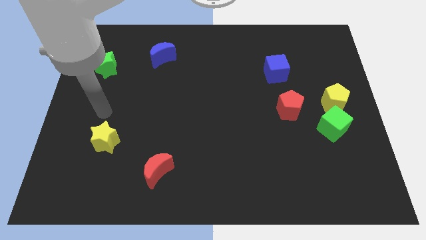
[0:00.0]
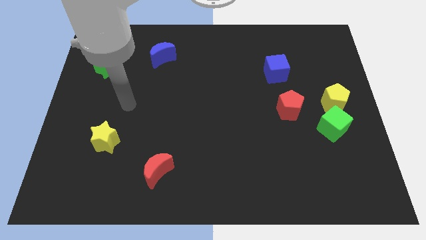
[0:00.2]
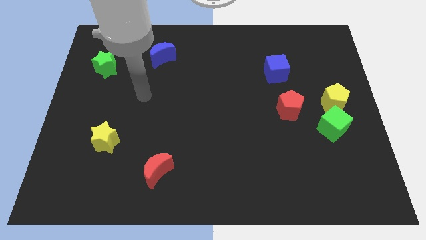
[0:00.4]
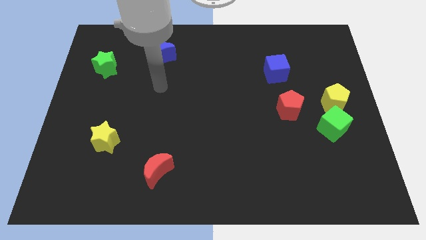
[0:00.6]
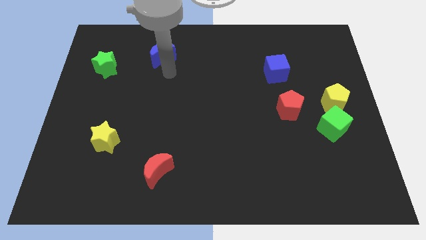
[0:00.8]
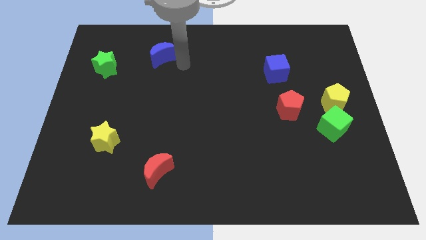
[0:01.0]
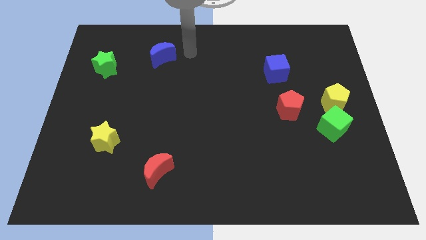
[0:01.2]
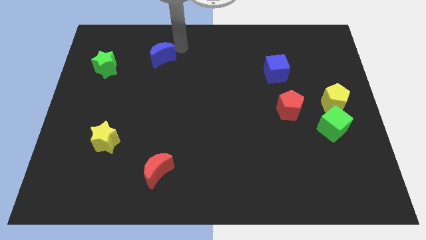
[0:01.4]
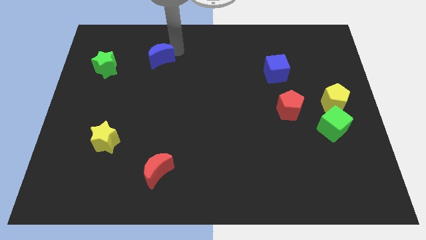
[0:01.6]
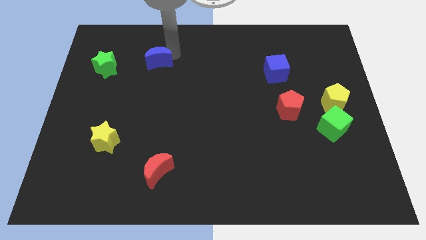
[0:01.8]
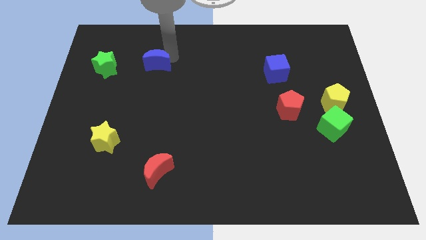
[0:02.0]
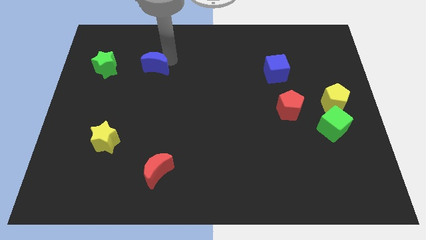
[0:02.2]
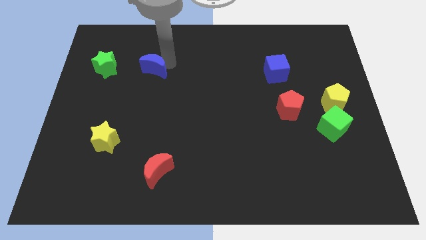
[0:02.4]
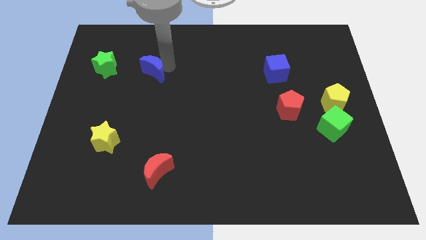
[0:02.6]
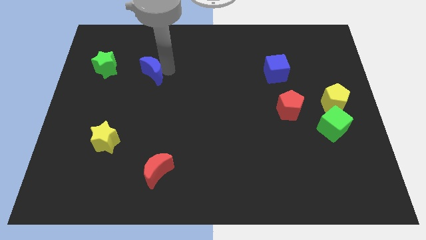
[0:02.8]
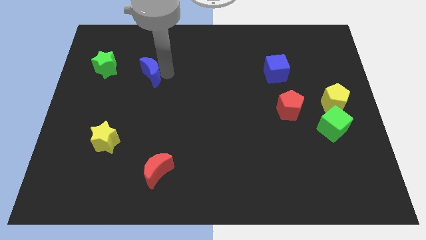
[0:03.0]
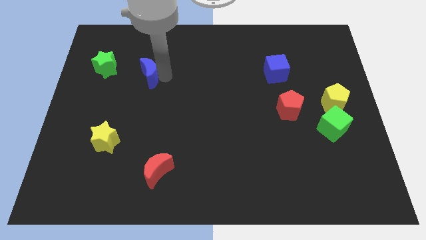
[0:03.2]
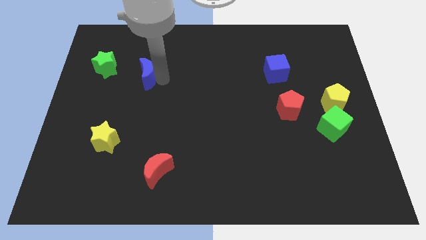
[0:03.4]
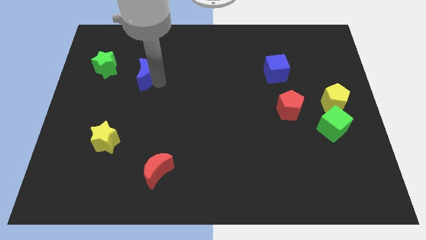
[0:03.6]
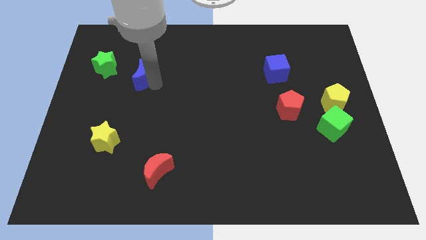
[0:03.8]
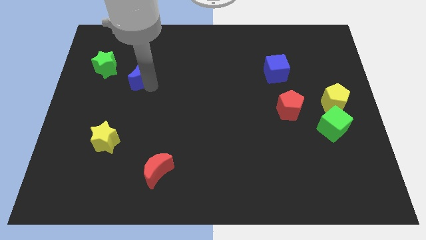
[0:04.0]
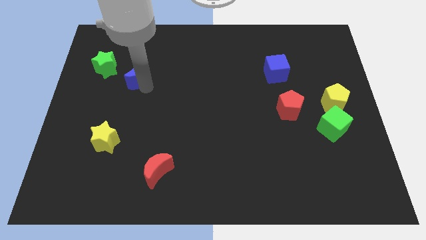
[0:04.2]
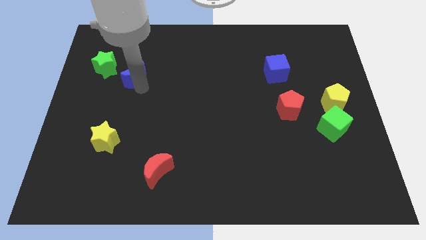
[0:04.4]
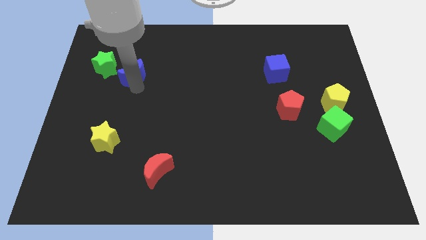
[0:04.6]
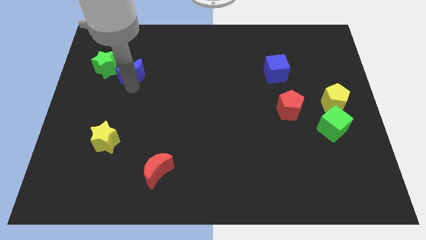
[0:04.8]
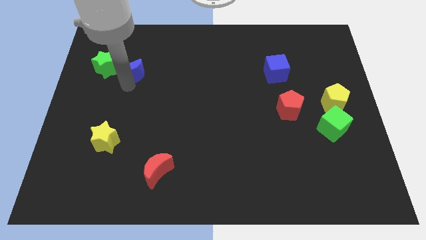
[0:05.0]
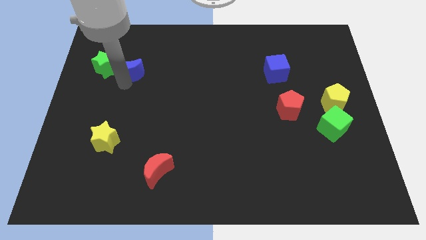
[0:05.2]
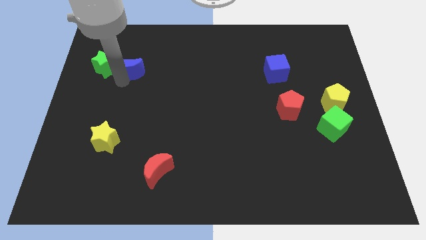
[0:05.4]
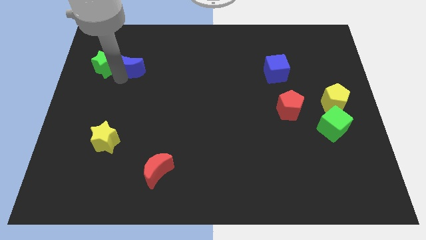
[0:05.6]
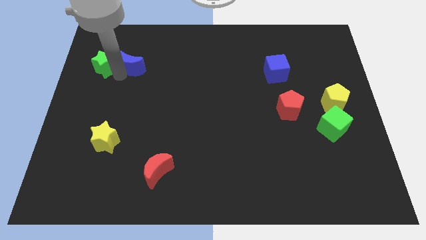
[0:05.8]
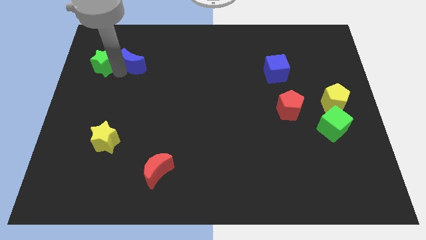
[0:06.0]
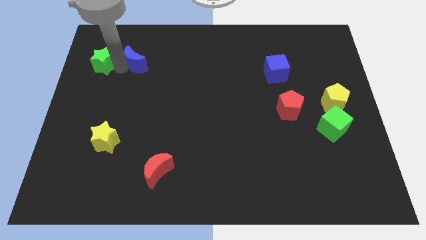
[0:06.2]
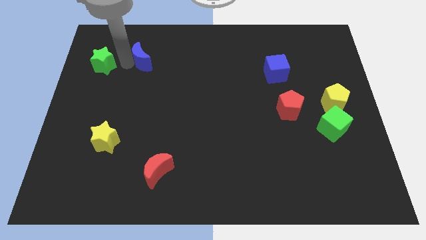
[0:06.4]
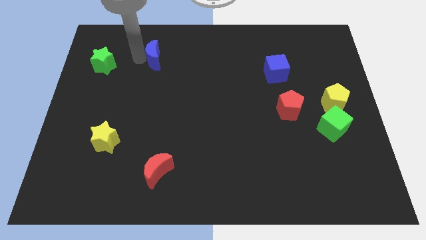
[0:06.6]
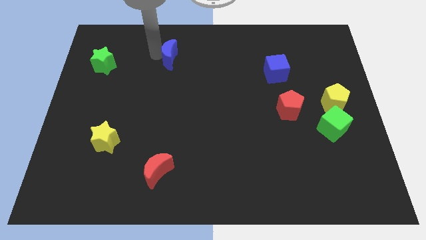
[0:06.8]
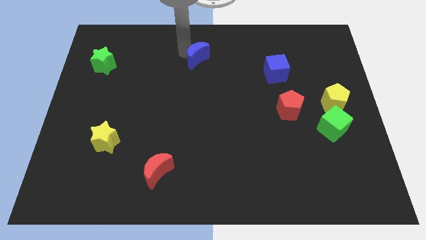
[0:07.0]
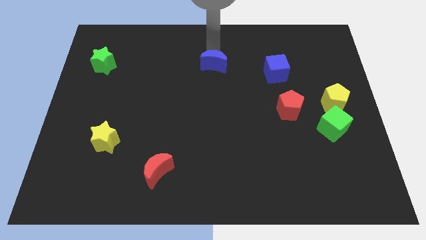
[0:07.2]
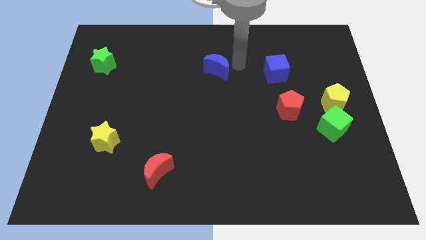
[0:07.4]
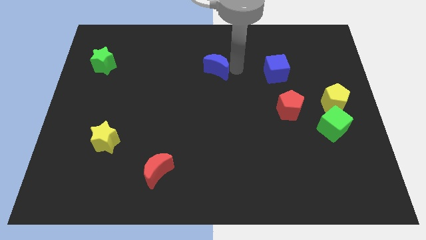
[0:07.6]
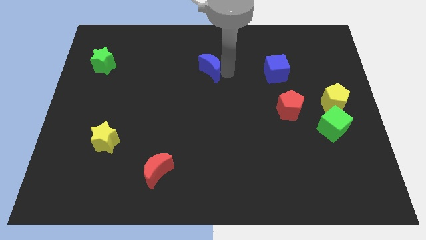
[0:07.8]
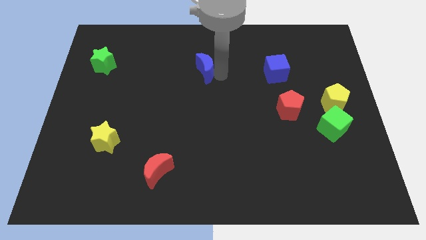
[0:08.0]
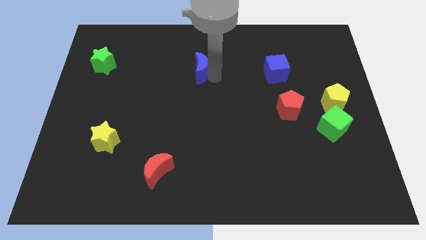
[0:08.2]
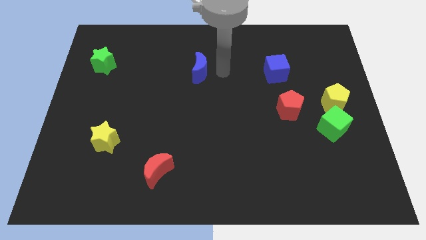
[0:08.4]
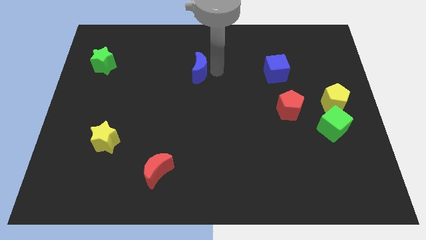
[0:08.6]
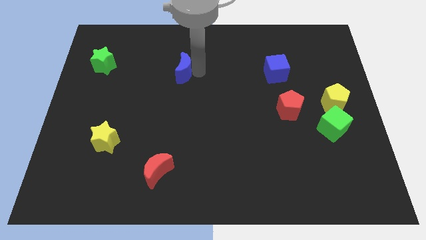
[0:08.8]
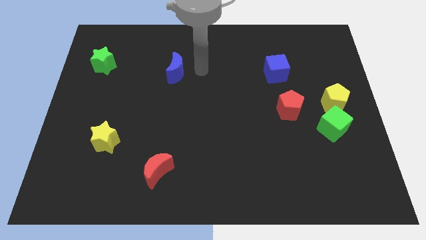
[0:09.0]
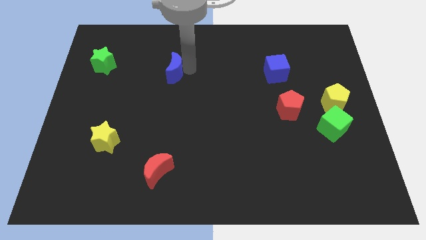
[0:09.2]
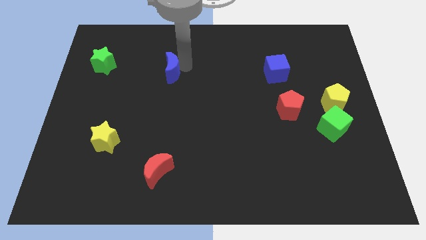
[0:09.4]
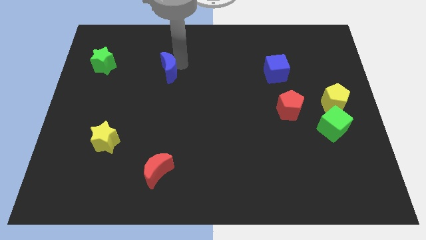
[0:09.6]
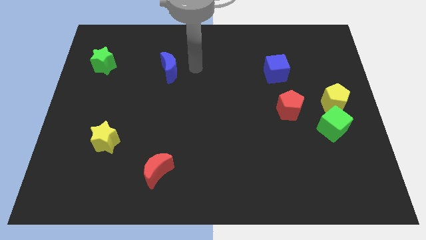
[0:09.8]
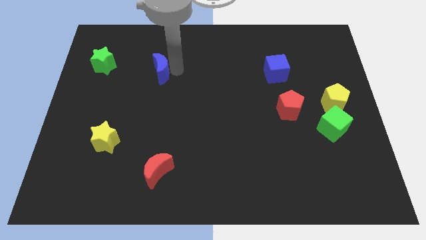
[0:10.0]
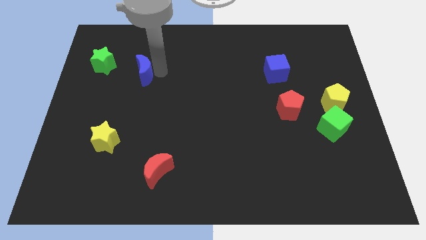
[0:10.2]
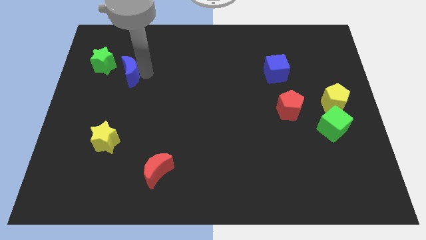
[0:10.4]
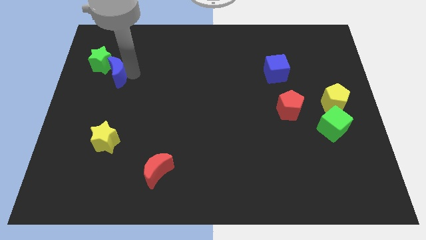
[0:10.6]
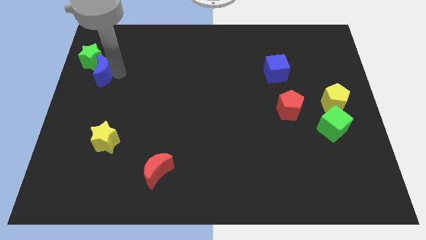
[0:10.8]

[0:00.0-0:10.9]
put the blue moon to the center left

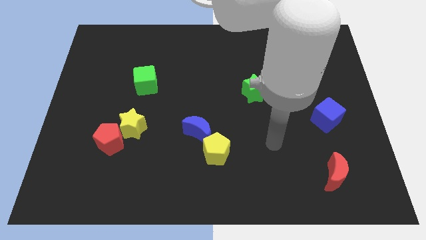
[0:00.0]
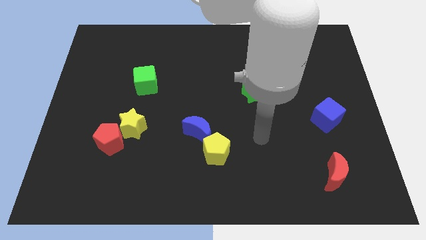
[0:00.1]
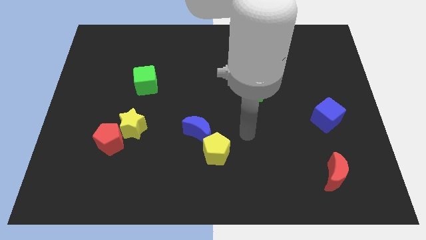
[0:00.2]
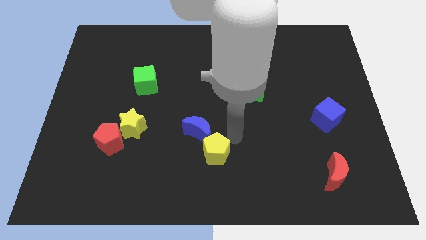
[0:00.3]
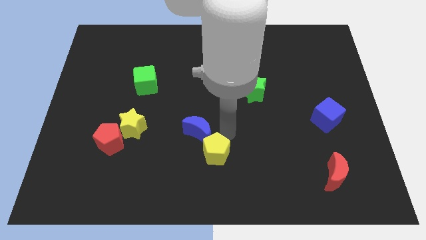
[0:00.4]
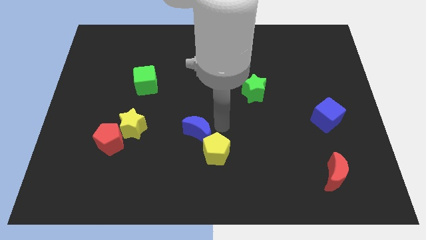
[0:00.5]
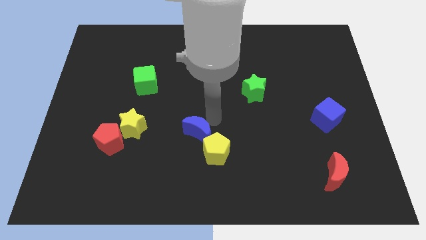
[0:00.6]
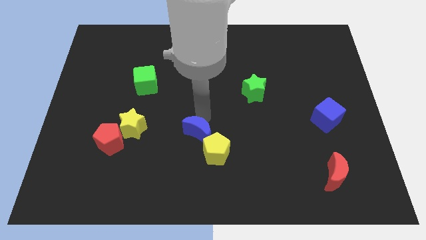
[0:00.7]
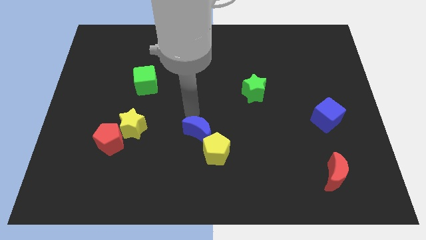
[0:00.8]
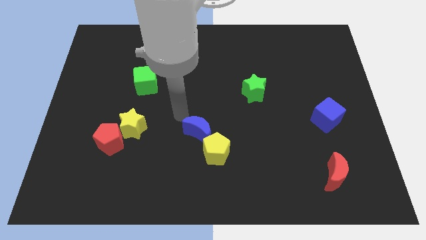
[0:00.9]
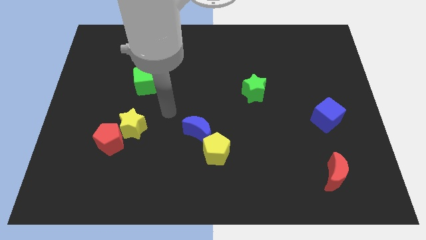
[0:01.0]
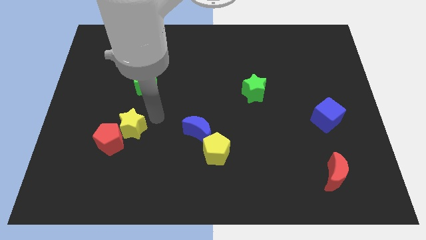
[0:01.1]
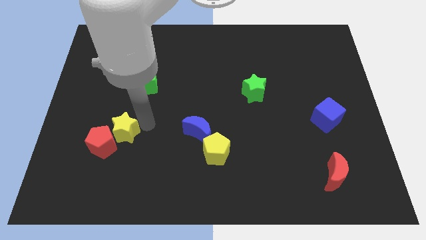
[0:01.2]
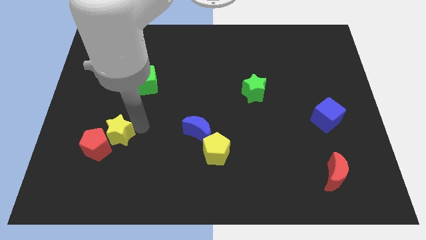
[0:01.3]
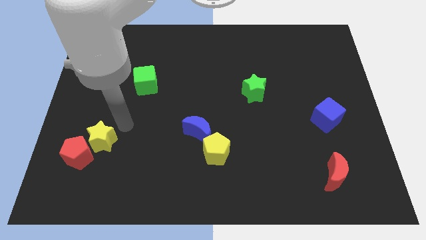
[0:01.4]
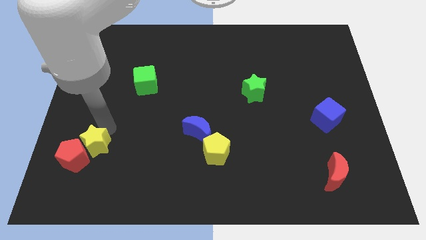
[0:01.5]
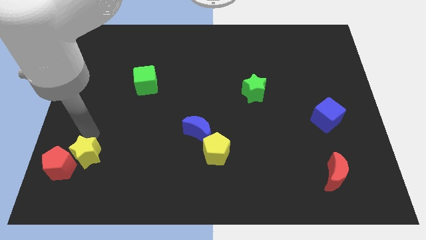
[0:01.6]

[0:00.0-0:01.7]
move the red pentagon to the bottom left corner
